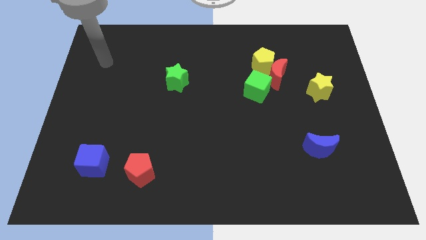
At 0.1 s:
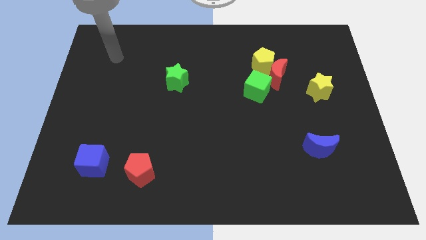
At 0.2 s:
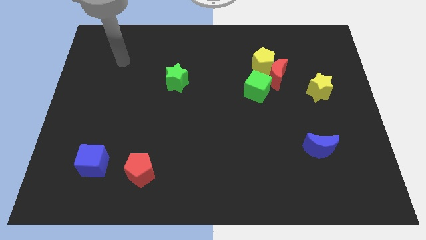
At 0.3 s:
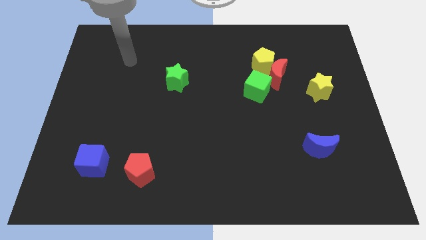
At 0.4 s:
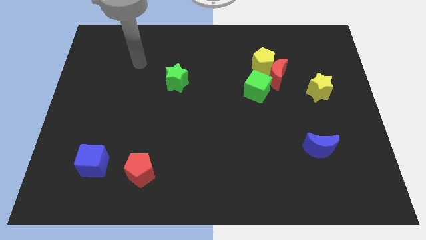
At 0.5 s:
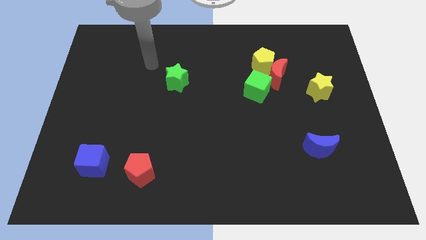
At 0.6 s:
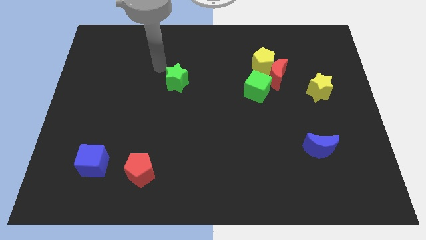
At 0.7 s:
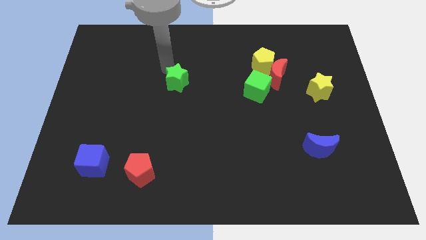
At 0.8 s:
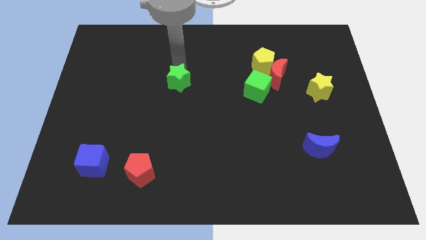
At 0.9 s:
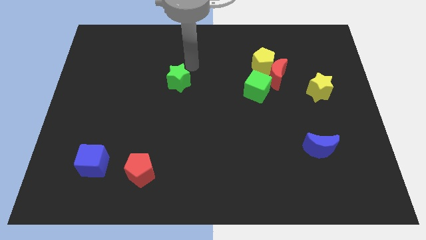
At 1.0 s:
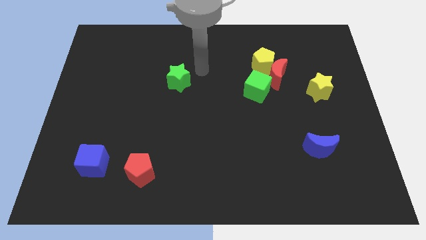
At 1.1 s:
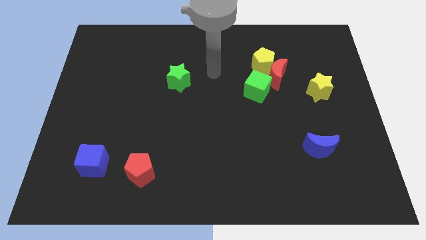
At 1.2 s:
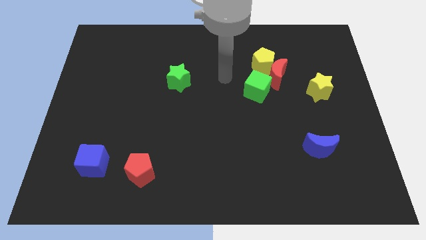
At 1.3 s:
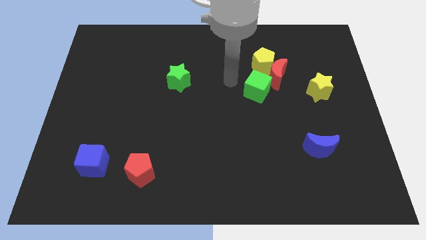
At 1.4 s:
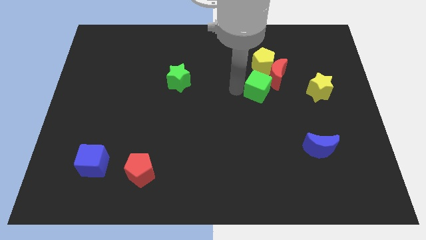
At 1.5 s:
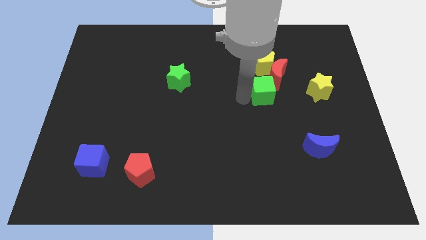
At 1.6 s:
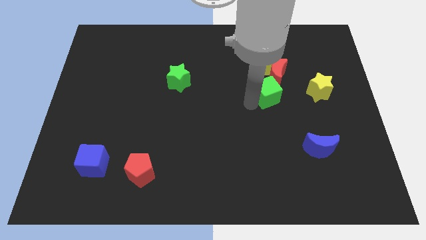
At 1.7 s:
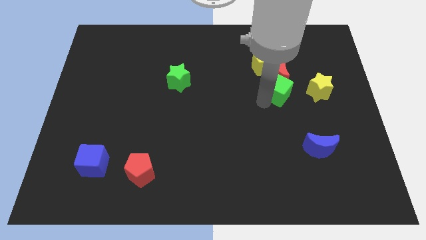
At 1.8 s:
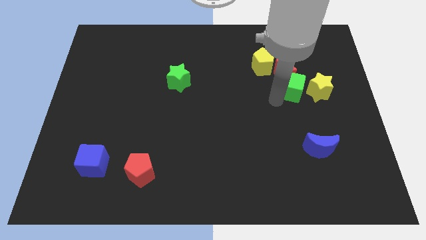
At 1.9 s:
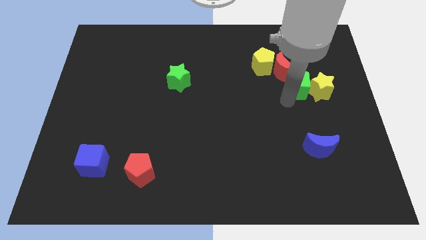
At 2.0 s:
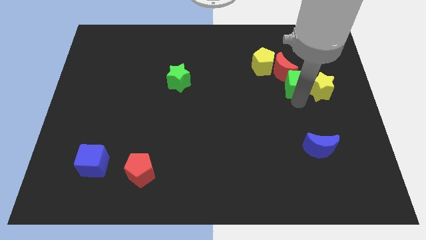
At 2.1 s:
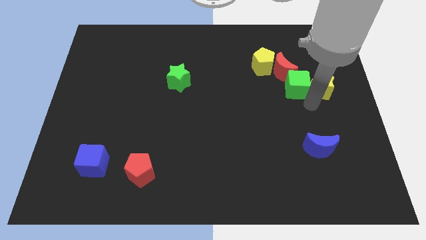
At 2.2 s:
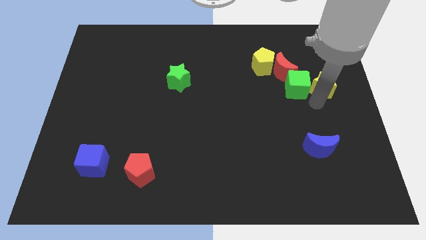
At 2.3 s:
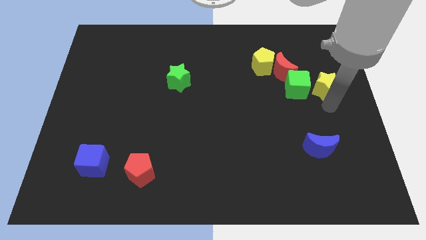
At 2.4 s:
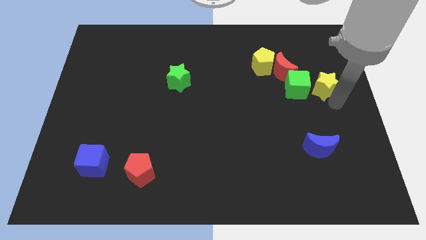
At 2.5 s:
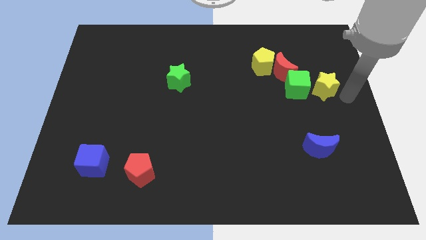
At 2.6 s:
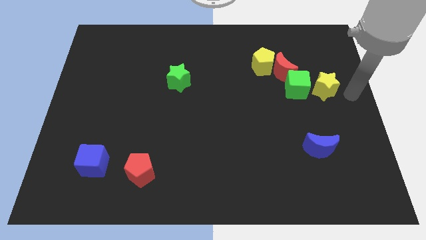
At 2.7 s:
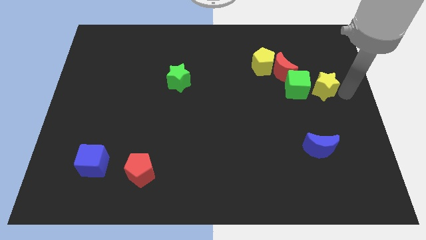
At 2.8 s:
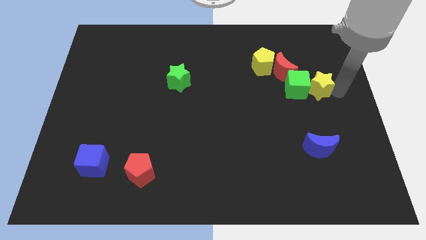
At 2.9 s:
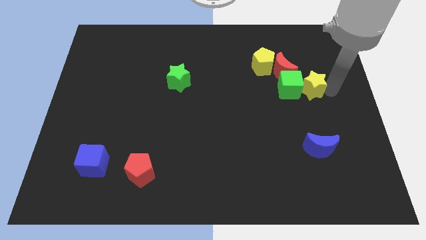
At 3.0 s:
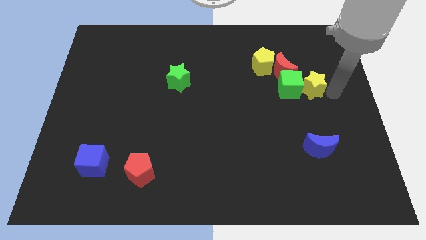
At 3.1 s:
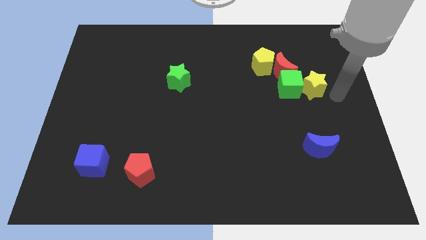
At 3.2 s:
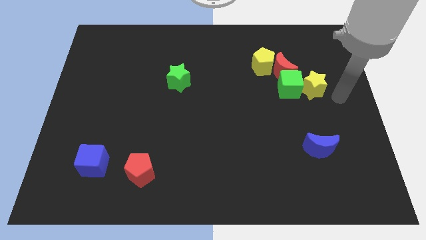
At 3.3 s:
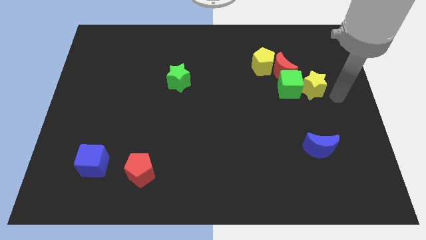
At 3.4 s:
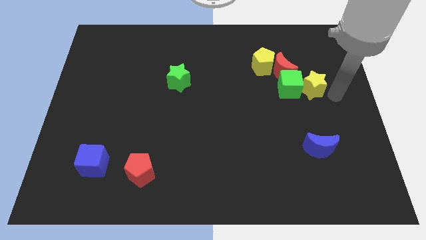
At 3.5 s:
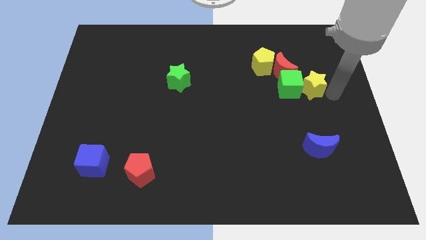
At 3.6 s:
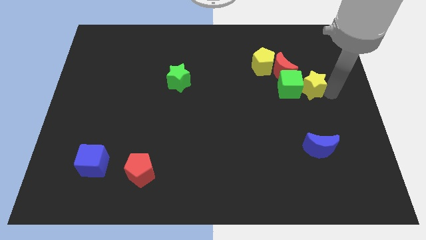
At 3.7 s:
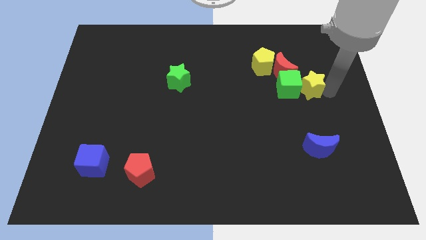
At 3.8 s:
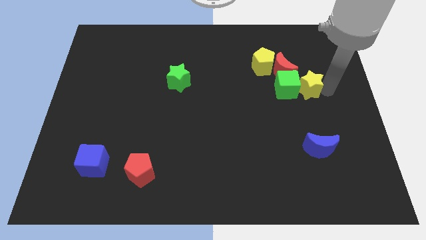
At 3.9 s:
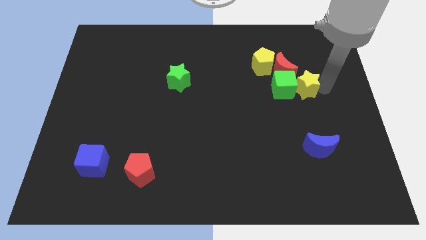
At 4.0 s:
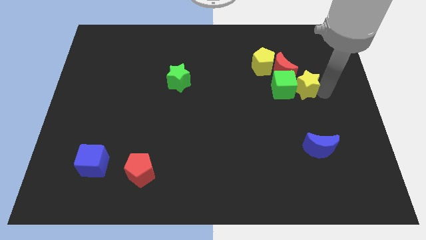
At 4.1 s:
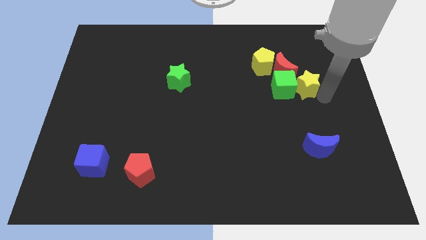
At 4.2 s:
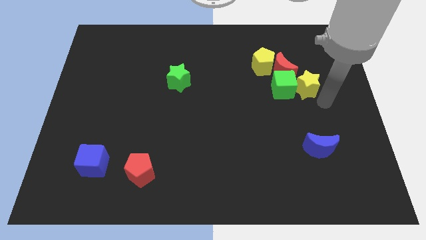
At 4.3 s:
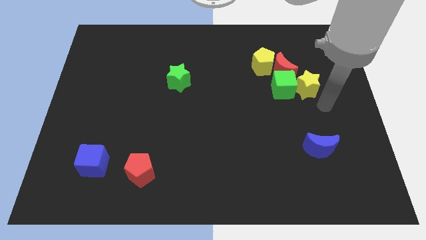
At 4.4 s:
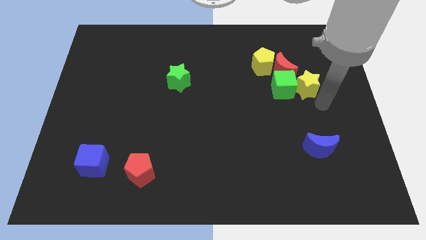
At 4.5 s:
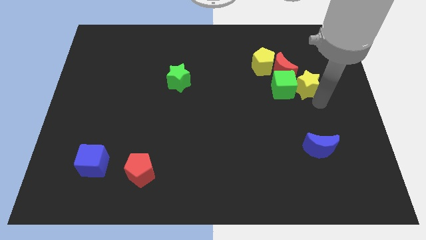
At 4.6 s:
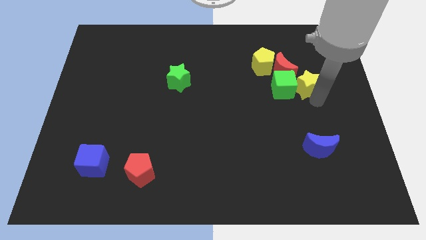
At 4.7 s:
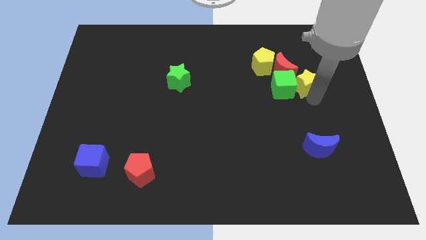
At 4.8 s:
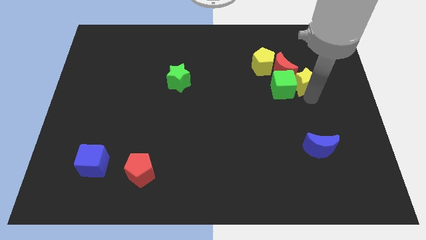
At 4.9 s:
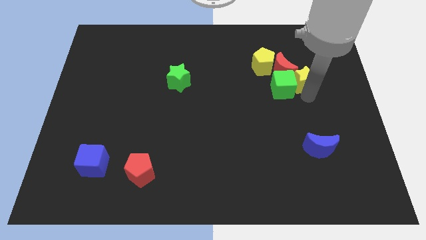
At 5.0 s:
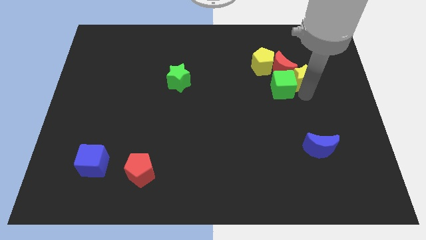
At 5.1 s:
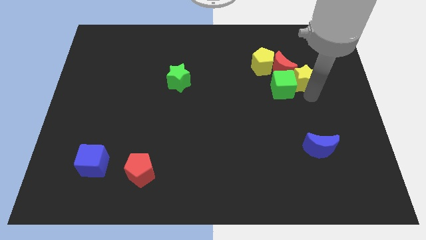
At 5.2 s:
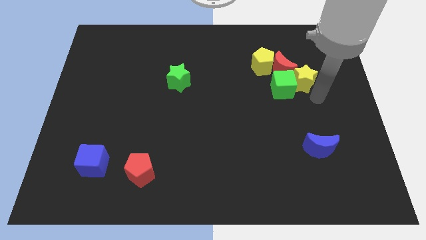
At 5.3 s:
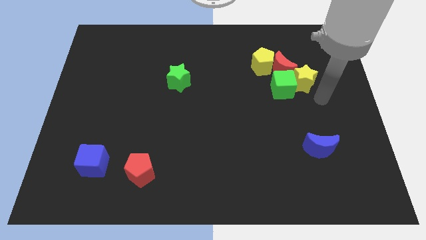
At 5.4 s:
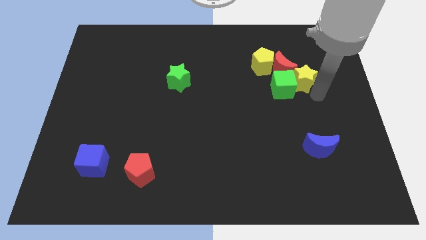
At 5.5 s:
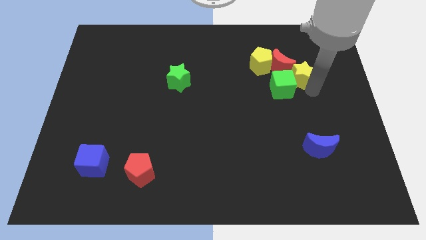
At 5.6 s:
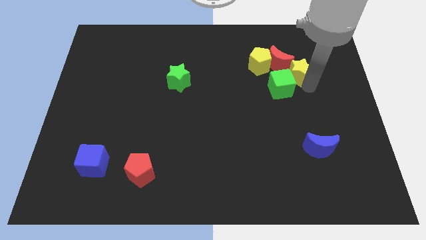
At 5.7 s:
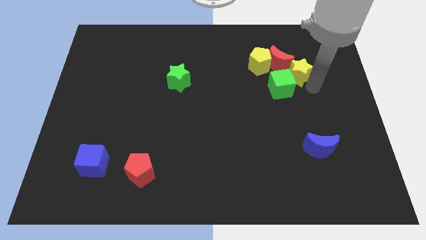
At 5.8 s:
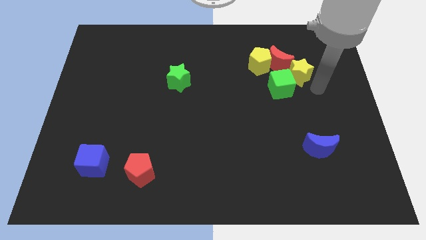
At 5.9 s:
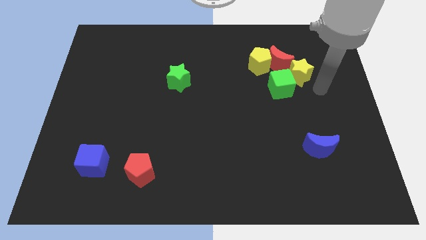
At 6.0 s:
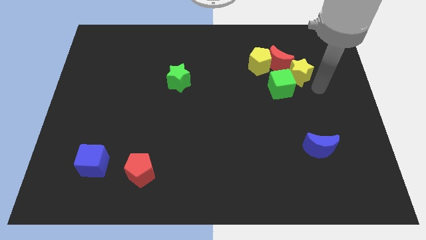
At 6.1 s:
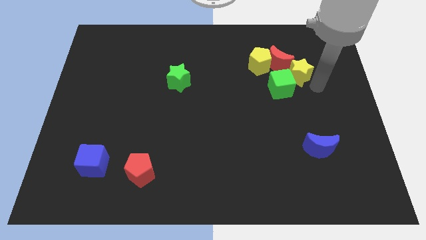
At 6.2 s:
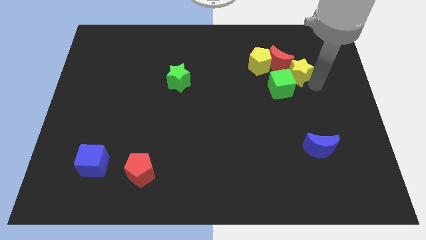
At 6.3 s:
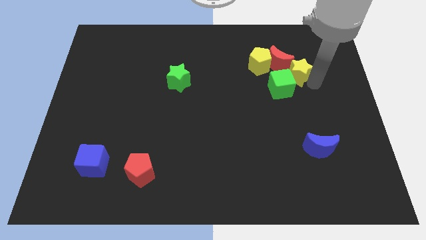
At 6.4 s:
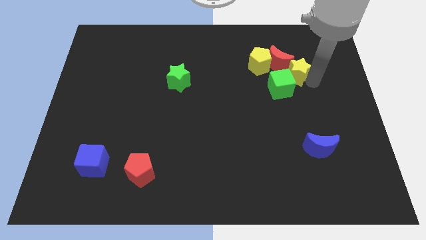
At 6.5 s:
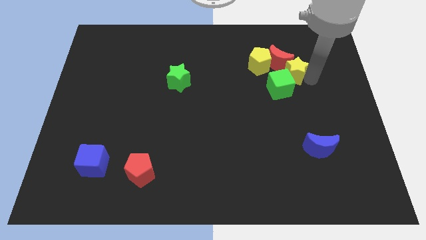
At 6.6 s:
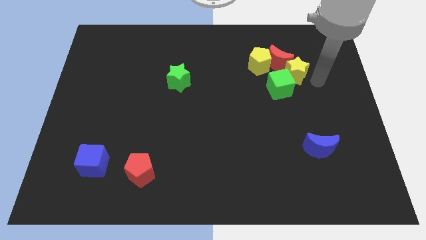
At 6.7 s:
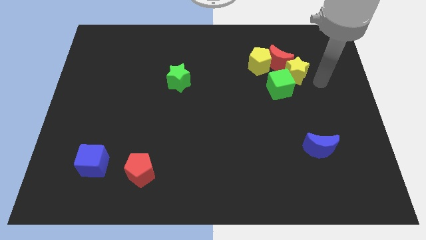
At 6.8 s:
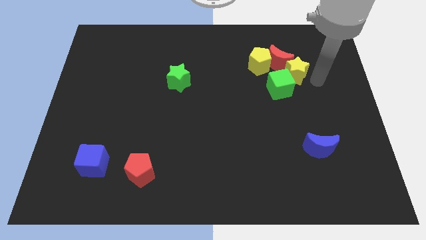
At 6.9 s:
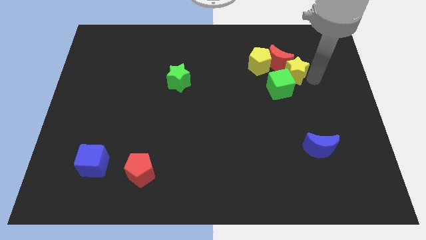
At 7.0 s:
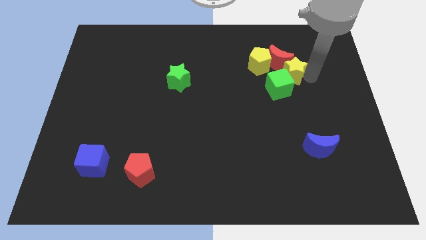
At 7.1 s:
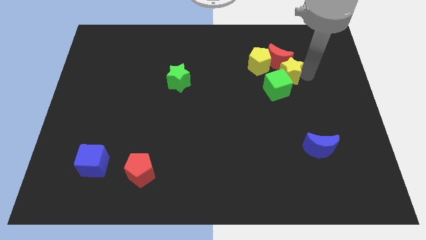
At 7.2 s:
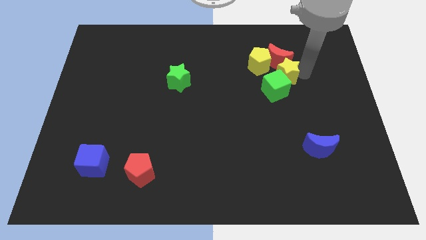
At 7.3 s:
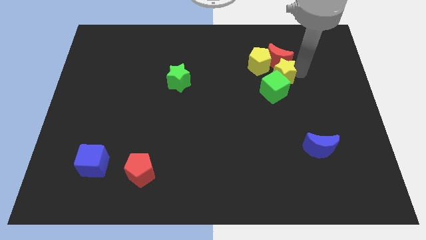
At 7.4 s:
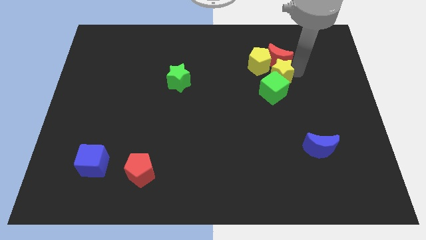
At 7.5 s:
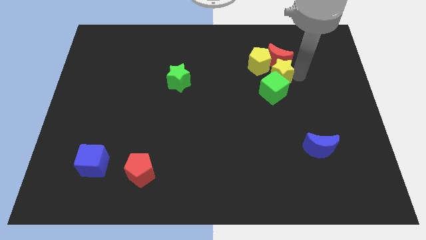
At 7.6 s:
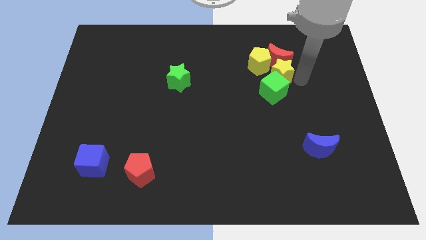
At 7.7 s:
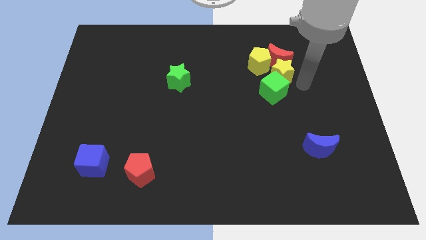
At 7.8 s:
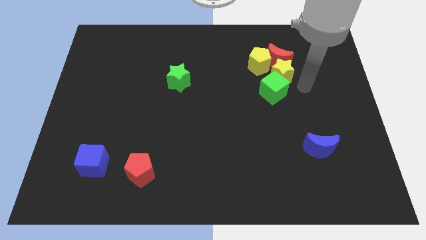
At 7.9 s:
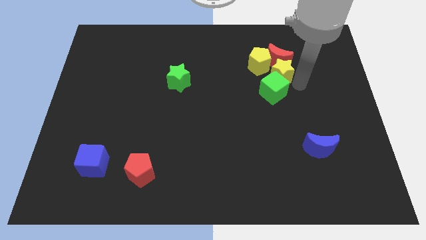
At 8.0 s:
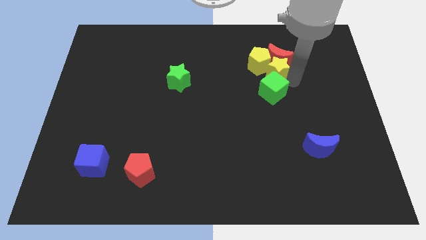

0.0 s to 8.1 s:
push the yellow star to the yellow pentagon
